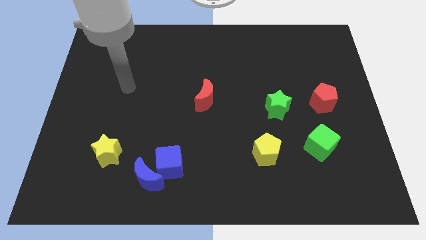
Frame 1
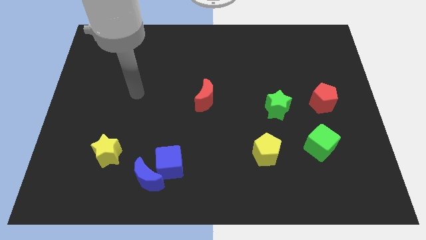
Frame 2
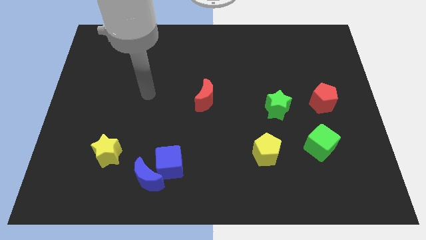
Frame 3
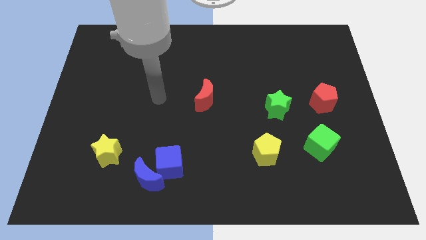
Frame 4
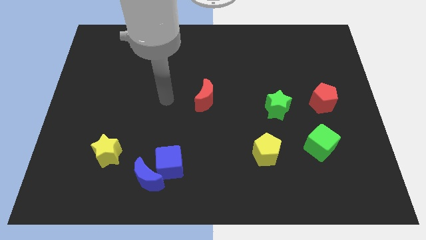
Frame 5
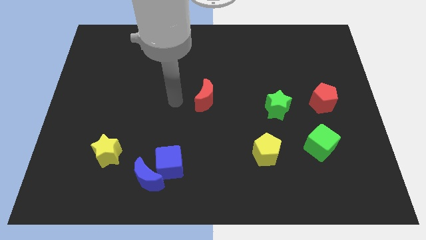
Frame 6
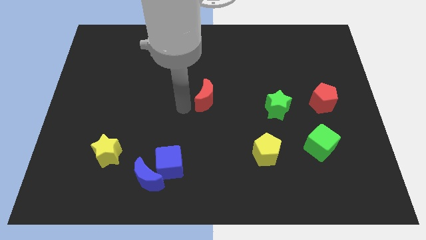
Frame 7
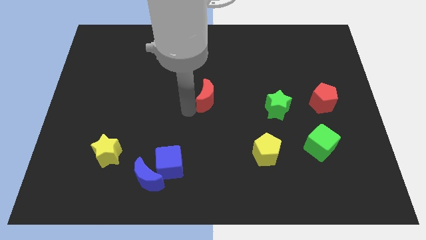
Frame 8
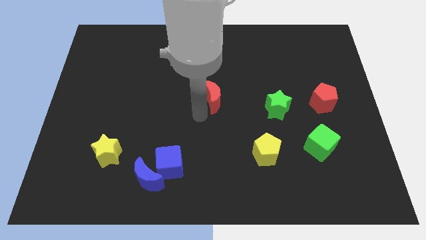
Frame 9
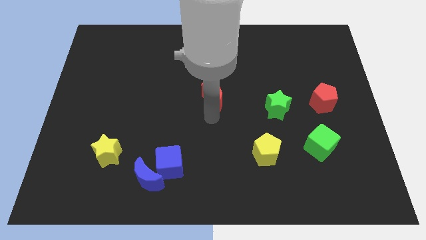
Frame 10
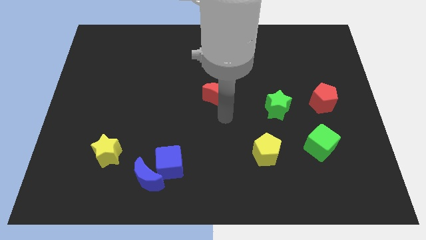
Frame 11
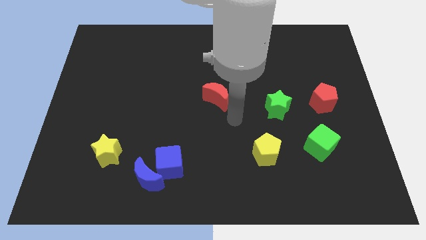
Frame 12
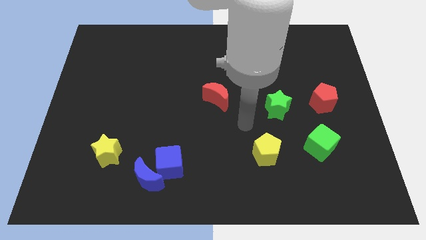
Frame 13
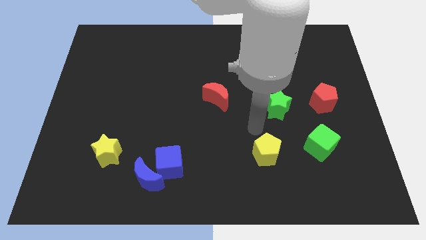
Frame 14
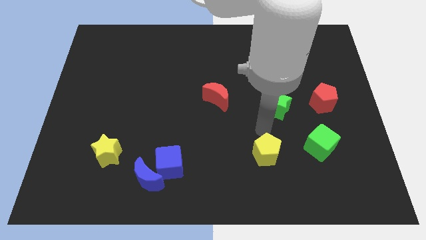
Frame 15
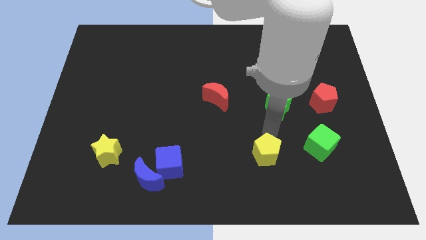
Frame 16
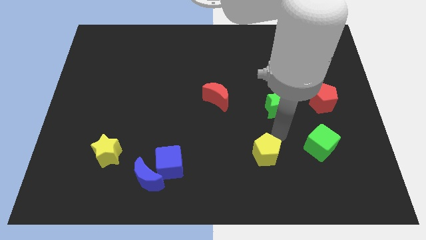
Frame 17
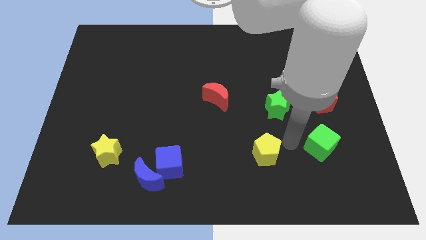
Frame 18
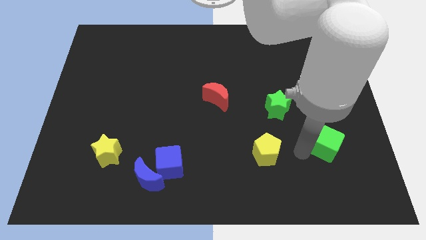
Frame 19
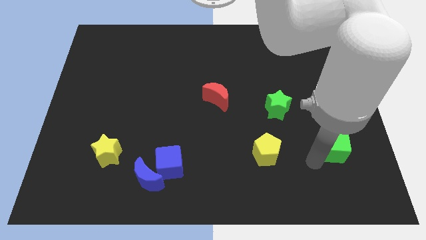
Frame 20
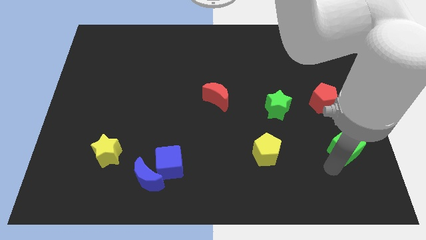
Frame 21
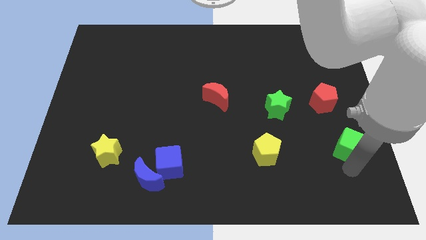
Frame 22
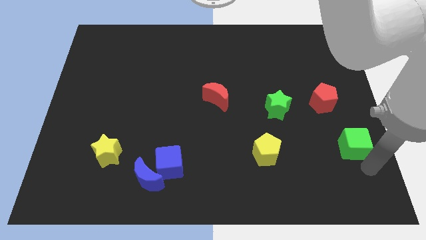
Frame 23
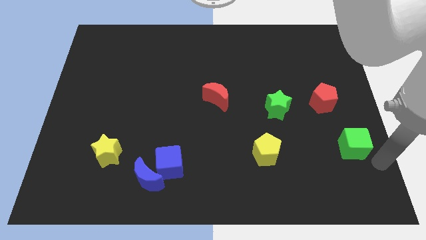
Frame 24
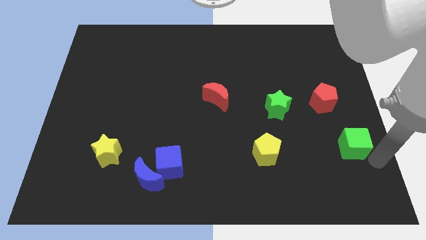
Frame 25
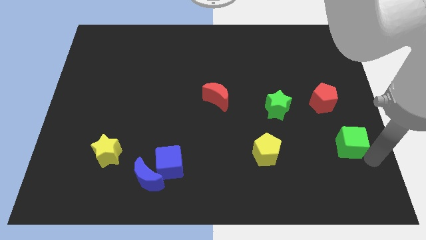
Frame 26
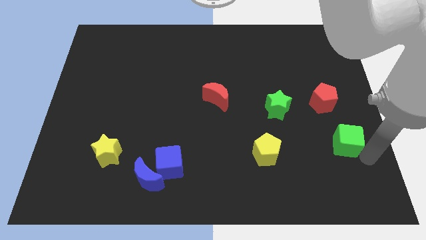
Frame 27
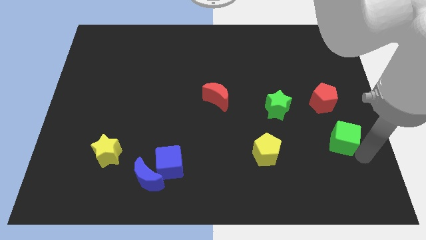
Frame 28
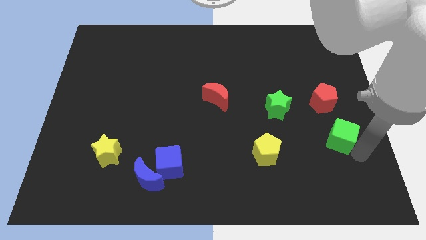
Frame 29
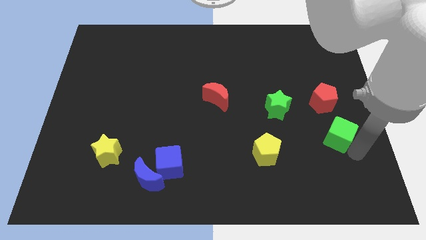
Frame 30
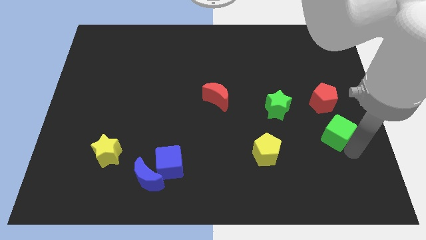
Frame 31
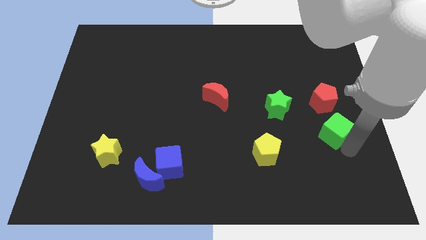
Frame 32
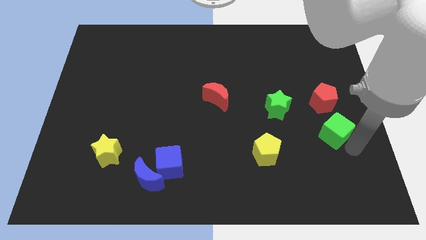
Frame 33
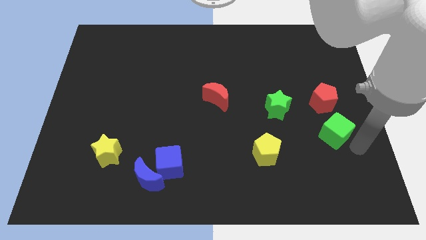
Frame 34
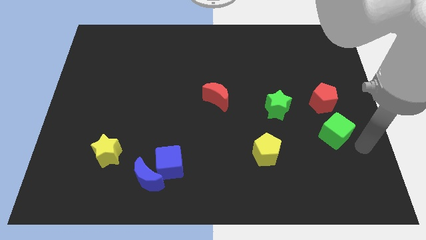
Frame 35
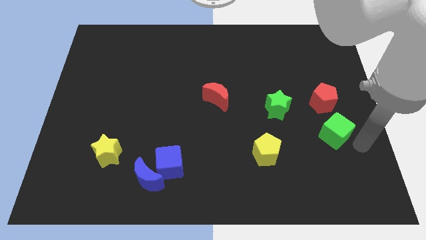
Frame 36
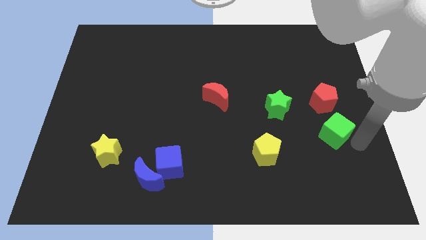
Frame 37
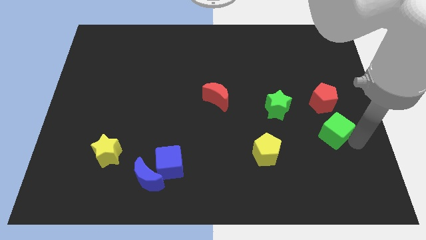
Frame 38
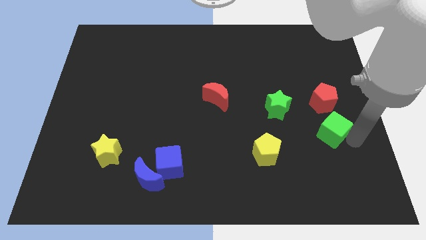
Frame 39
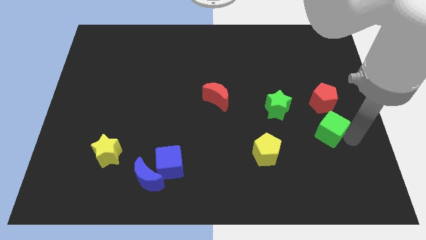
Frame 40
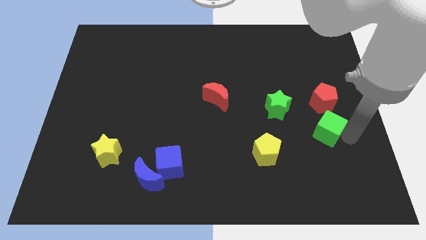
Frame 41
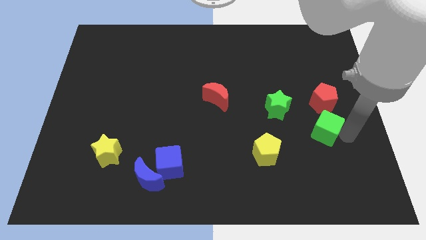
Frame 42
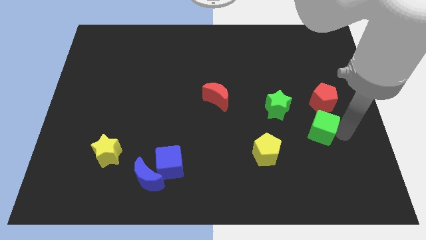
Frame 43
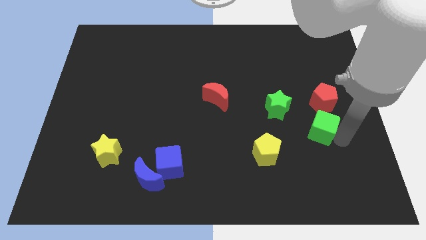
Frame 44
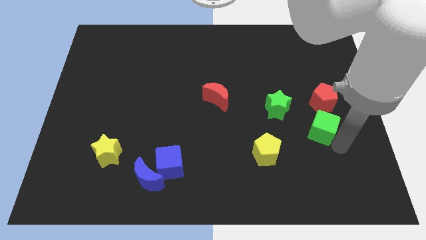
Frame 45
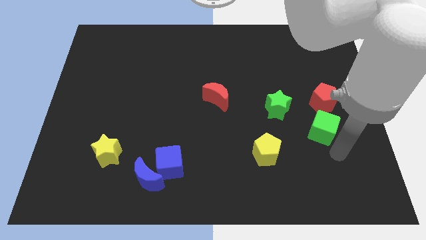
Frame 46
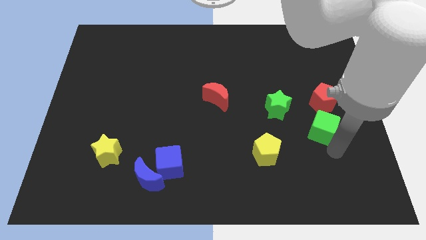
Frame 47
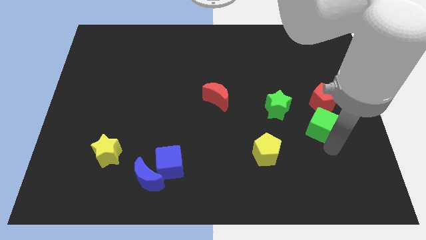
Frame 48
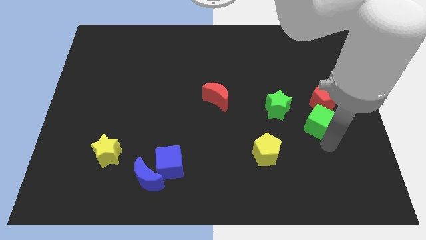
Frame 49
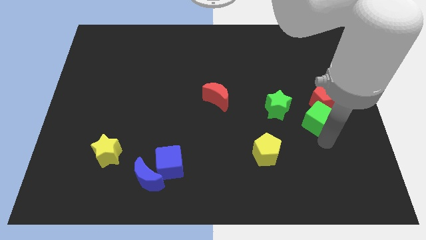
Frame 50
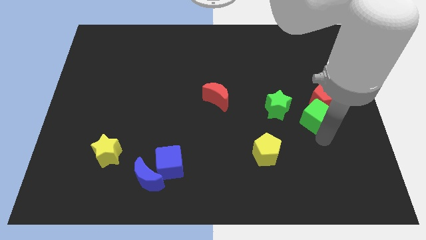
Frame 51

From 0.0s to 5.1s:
slightly move the green cube up

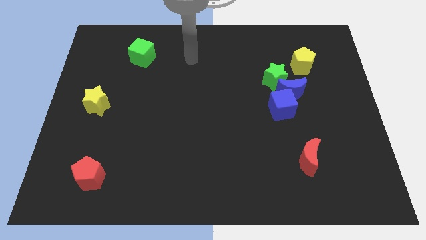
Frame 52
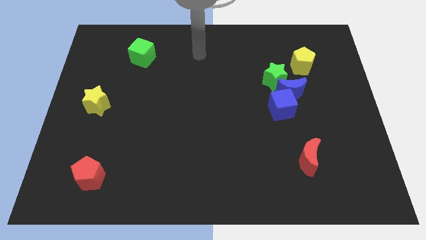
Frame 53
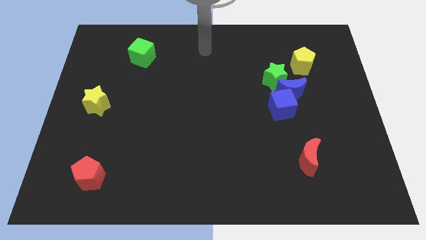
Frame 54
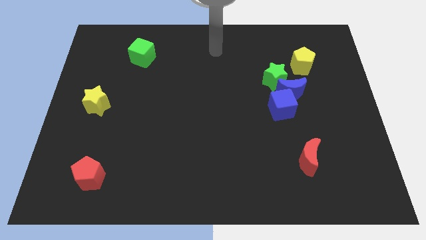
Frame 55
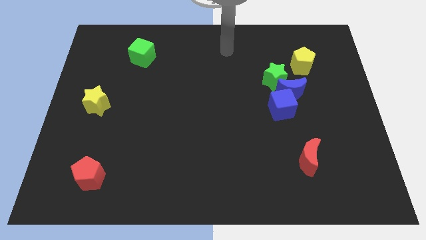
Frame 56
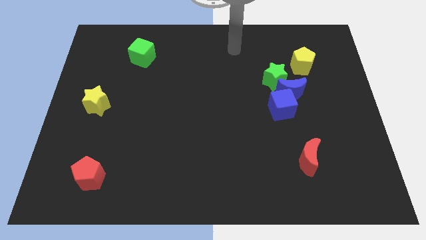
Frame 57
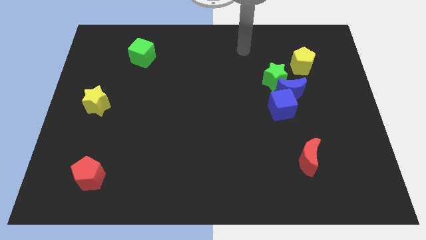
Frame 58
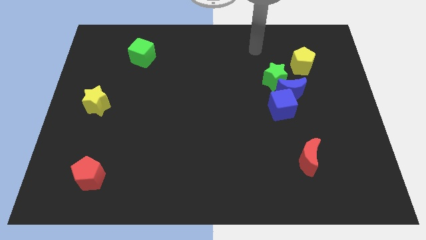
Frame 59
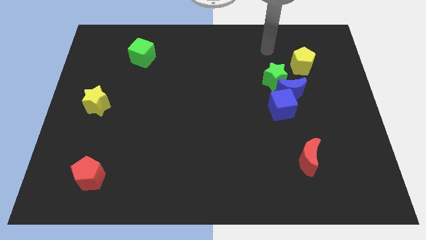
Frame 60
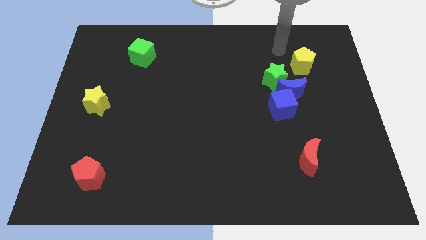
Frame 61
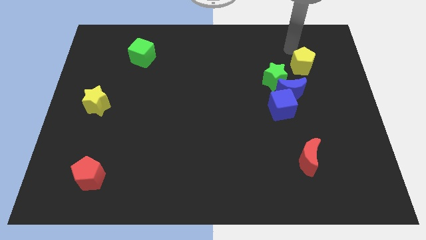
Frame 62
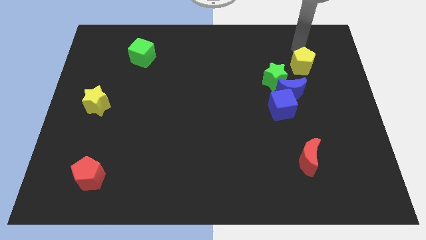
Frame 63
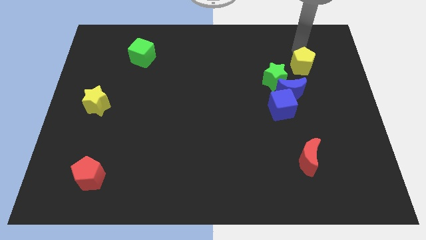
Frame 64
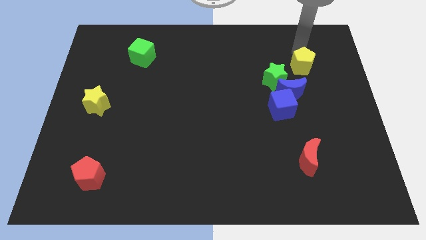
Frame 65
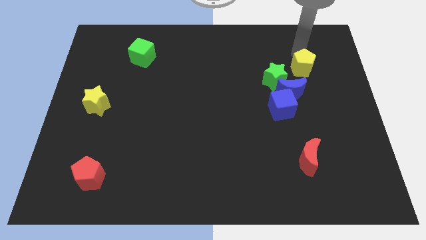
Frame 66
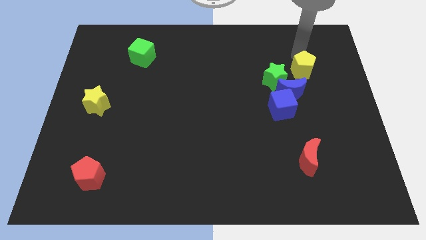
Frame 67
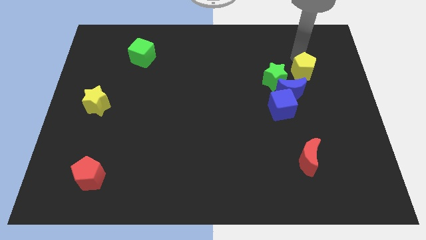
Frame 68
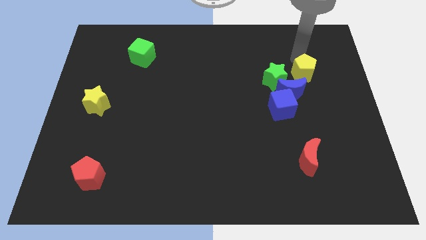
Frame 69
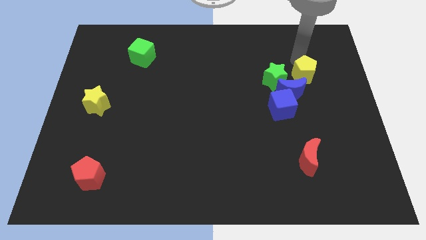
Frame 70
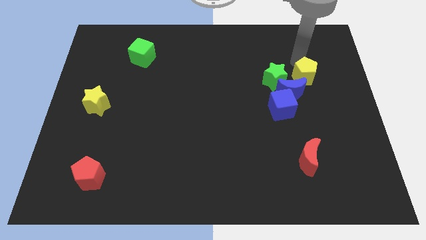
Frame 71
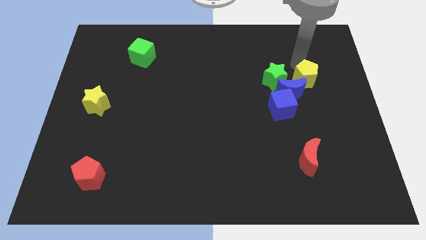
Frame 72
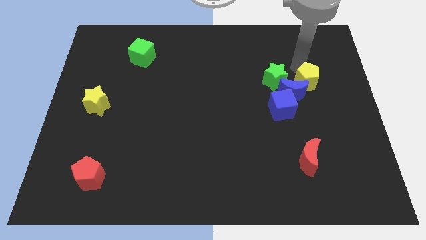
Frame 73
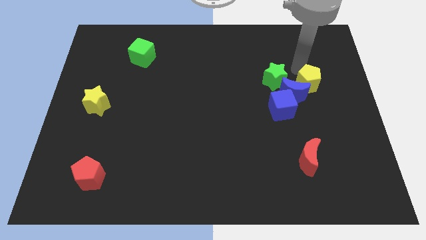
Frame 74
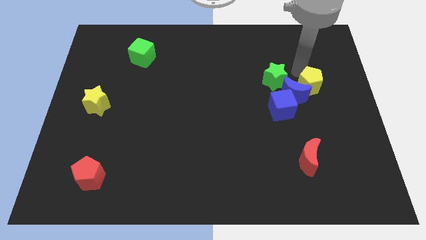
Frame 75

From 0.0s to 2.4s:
slide the yellow pentagon a little down

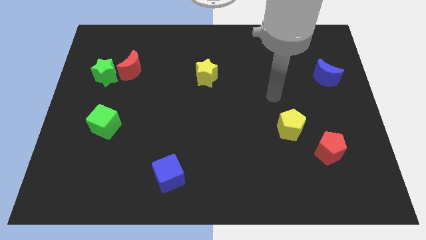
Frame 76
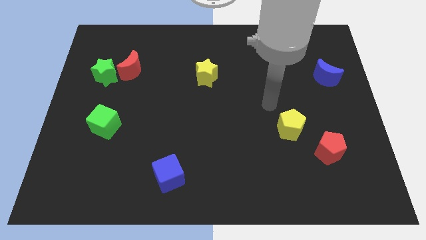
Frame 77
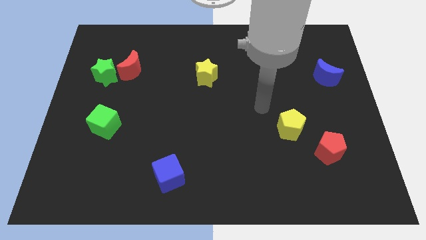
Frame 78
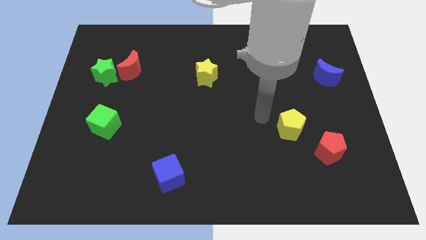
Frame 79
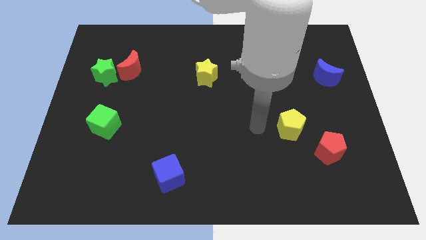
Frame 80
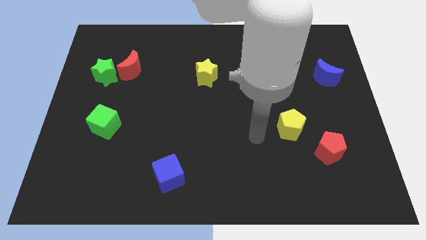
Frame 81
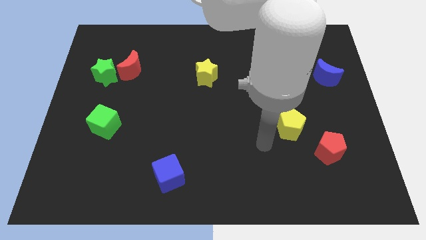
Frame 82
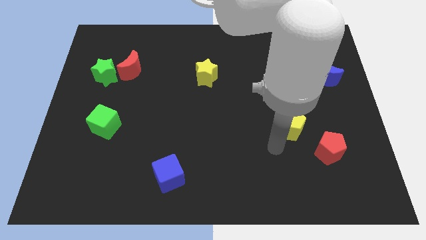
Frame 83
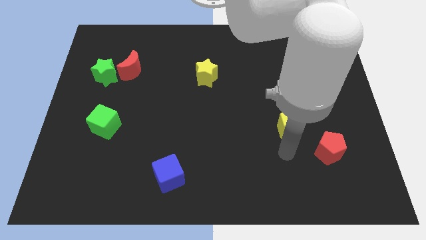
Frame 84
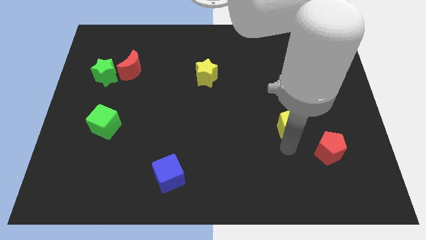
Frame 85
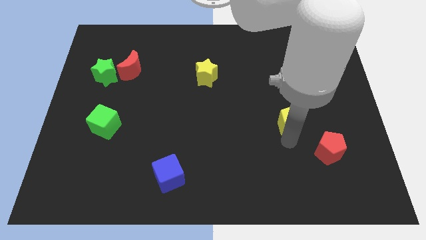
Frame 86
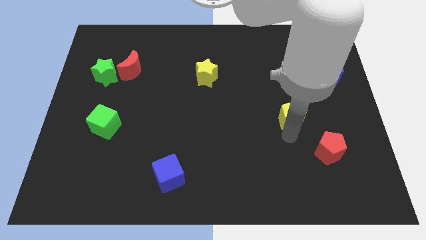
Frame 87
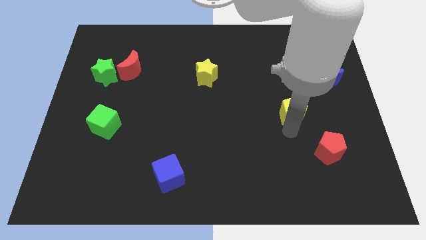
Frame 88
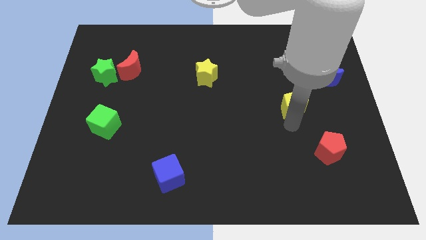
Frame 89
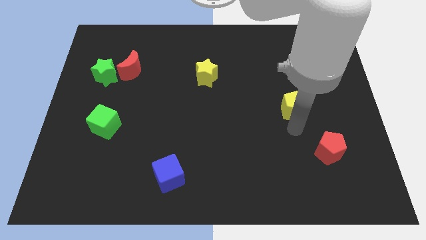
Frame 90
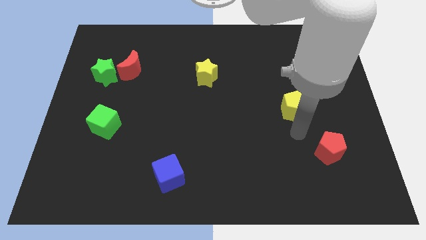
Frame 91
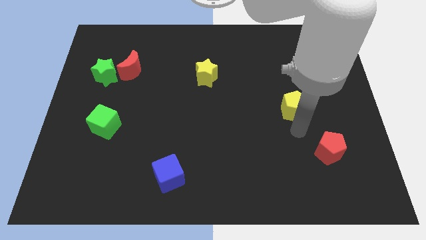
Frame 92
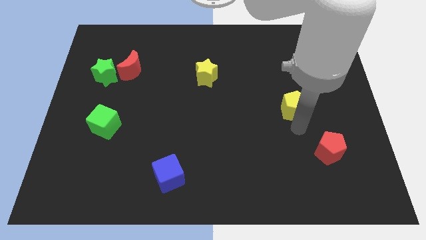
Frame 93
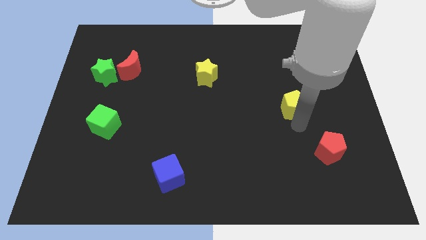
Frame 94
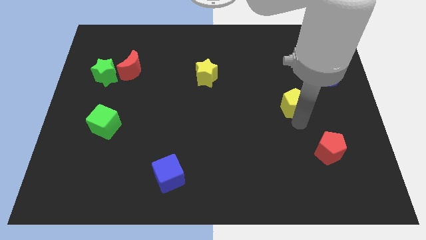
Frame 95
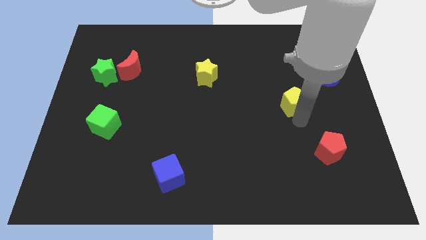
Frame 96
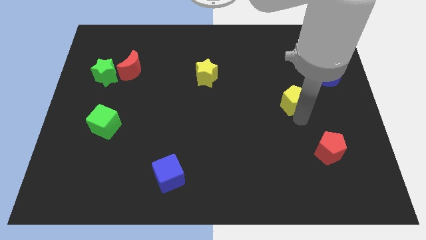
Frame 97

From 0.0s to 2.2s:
push the yellow pentagon a little up
